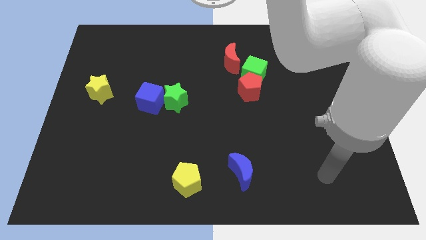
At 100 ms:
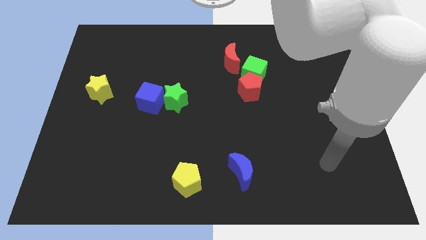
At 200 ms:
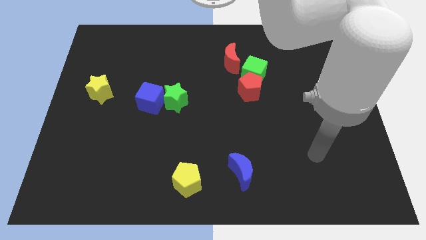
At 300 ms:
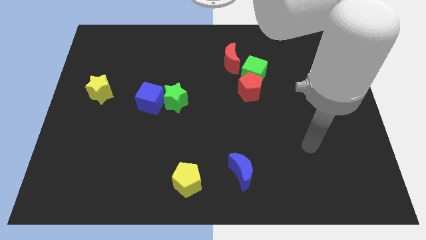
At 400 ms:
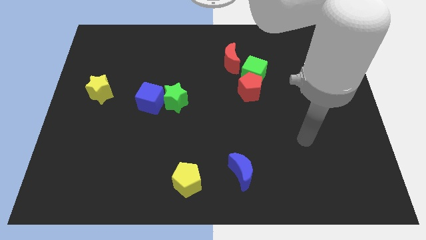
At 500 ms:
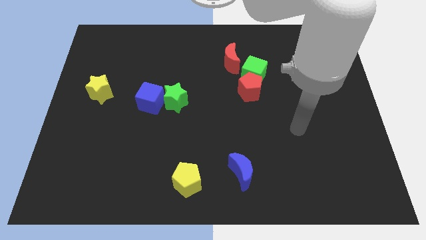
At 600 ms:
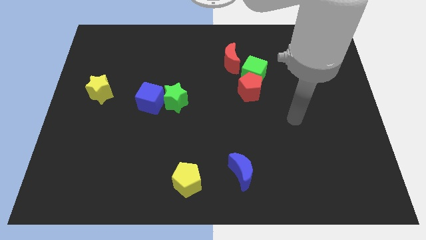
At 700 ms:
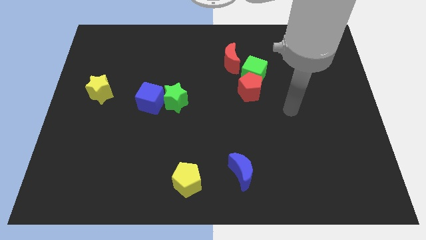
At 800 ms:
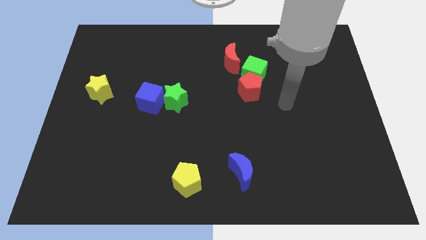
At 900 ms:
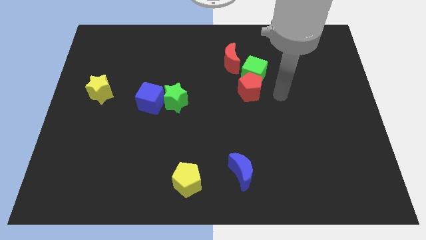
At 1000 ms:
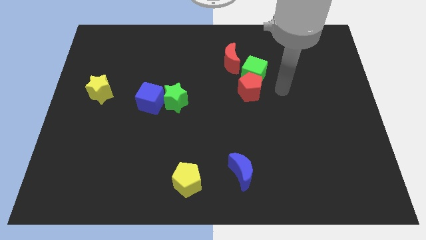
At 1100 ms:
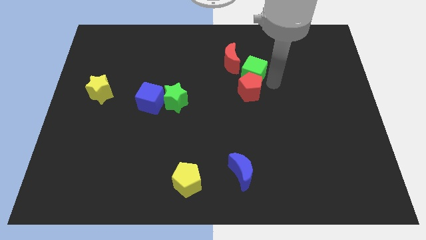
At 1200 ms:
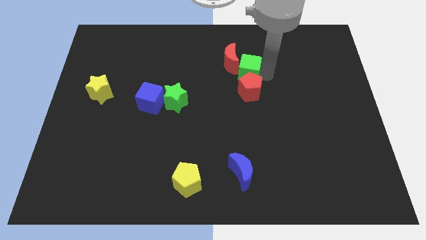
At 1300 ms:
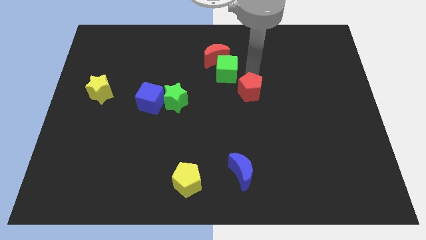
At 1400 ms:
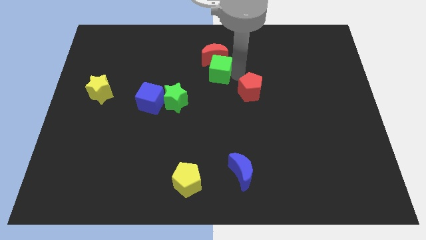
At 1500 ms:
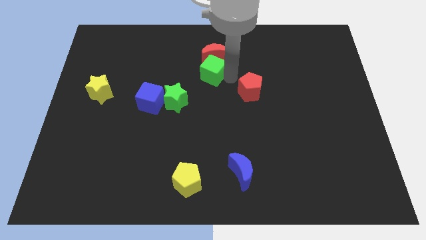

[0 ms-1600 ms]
move the red pentagon away from the green cube

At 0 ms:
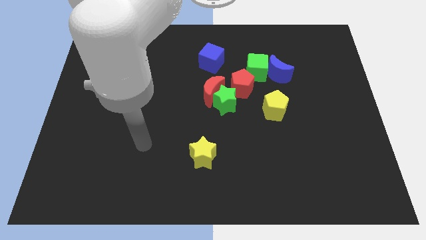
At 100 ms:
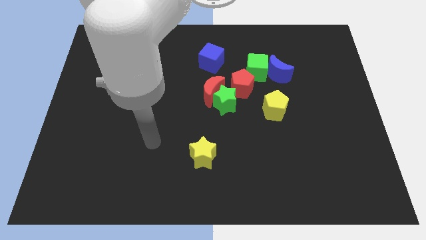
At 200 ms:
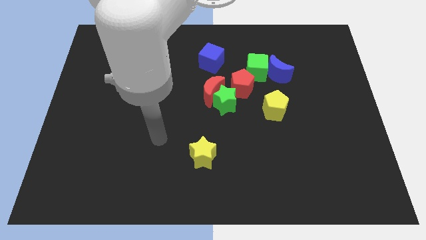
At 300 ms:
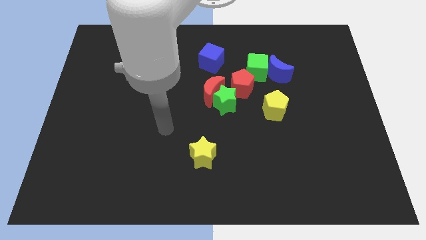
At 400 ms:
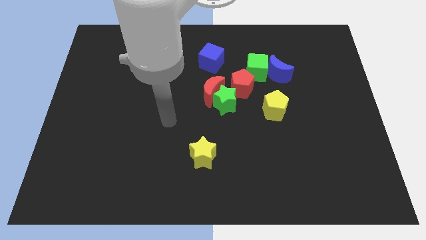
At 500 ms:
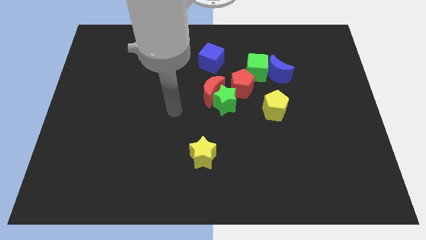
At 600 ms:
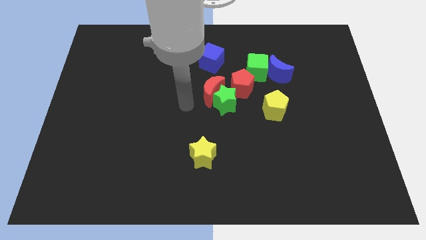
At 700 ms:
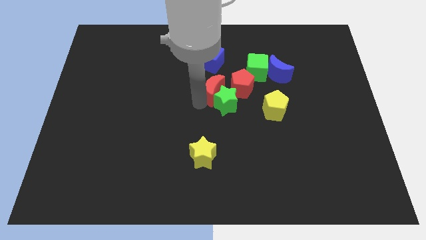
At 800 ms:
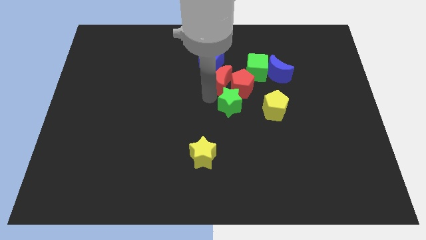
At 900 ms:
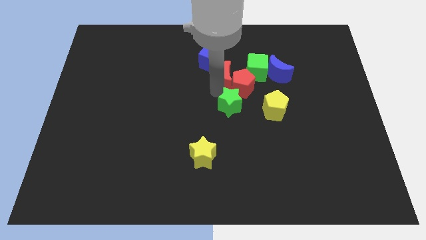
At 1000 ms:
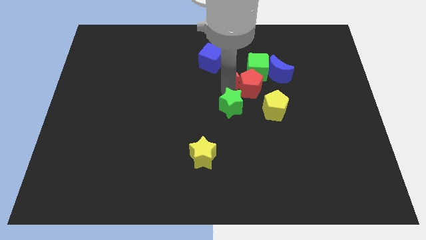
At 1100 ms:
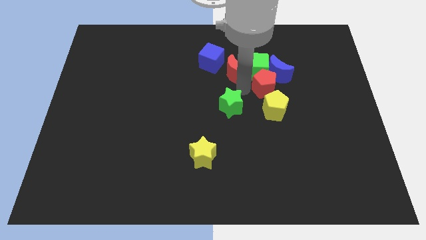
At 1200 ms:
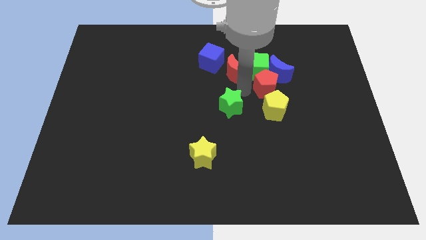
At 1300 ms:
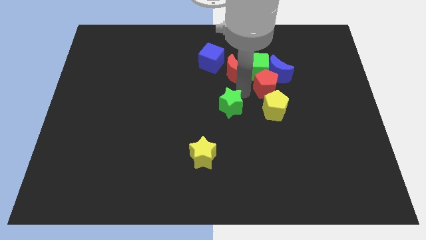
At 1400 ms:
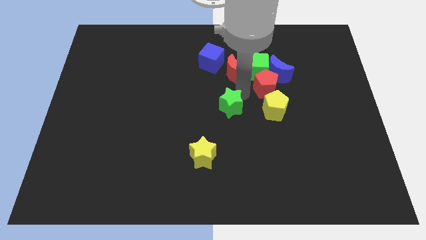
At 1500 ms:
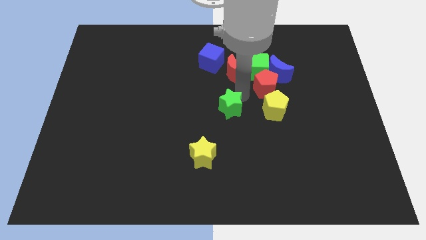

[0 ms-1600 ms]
pull the green star apart from the red moon and red pentagon

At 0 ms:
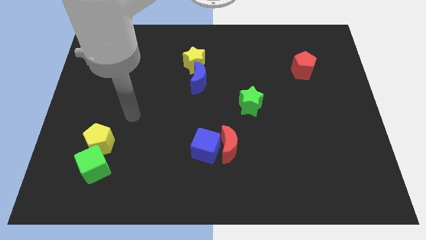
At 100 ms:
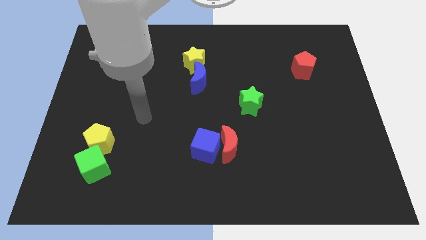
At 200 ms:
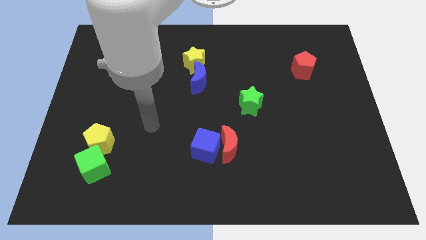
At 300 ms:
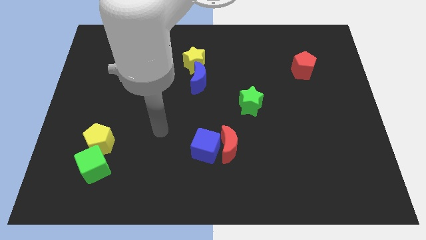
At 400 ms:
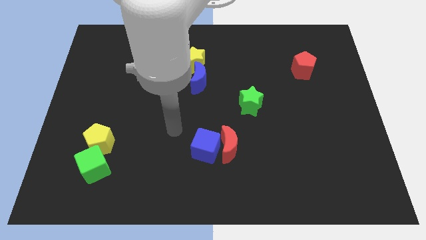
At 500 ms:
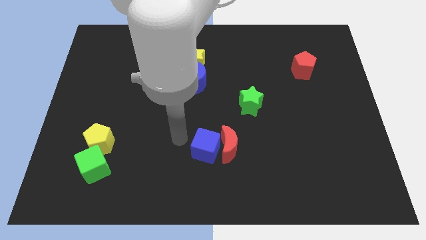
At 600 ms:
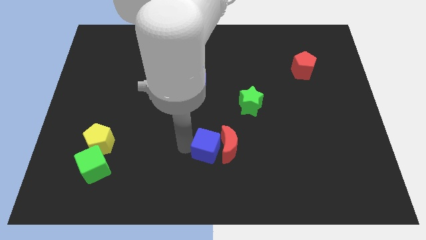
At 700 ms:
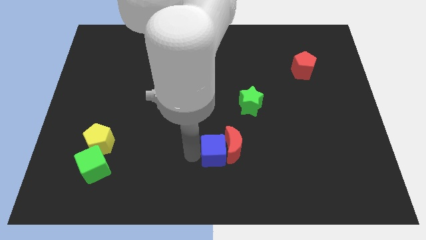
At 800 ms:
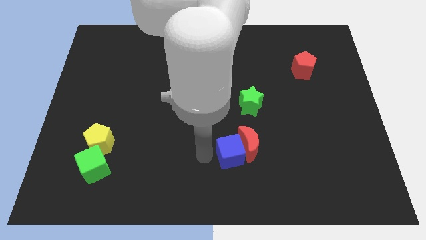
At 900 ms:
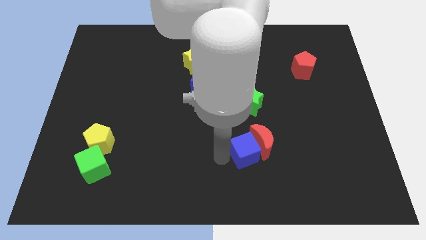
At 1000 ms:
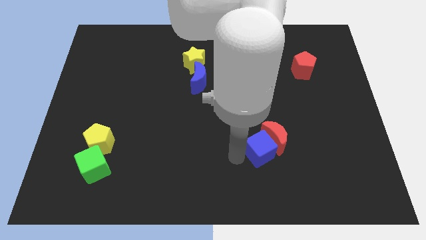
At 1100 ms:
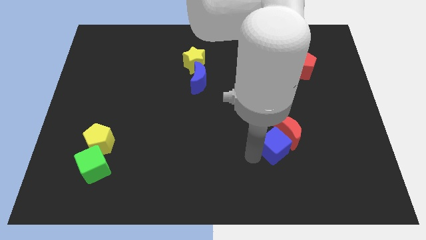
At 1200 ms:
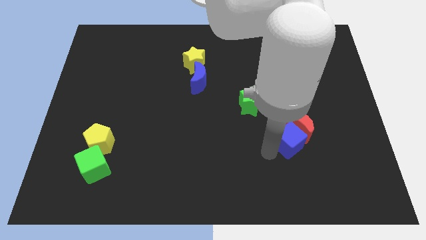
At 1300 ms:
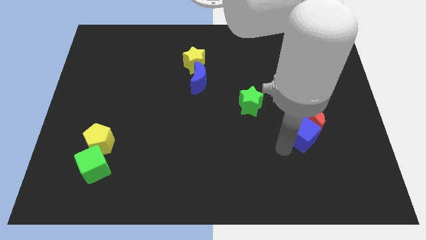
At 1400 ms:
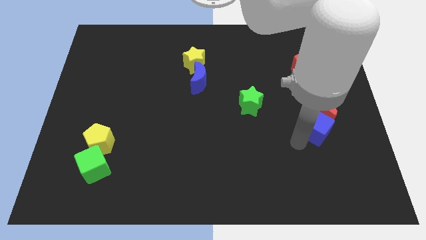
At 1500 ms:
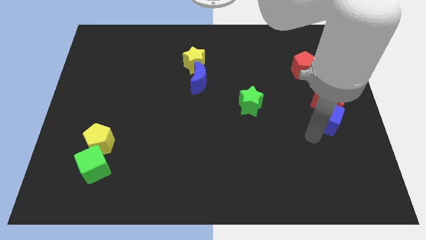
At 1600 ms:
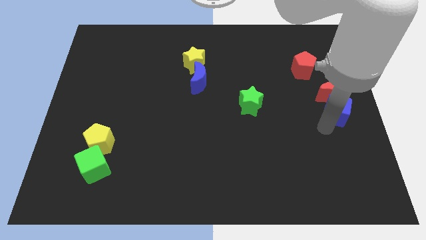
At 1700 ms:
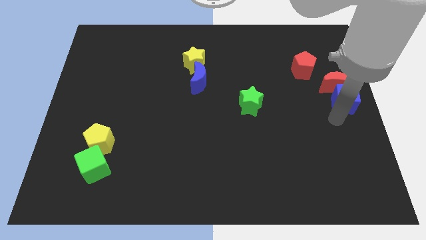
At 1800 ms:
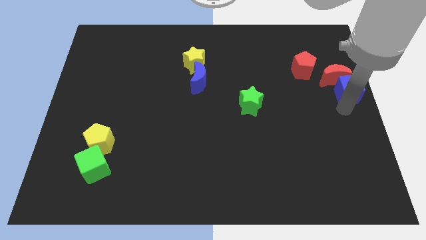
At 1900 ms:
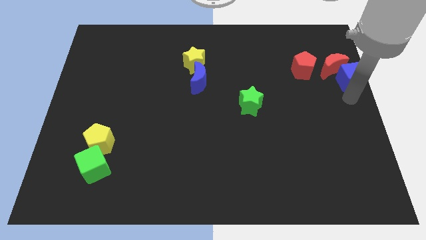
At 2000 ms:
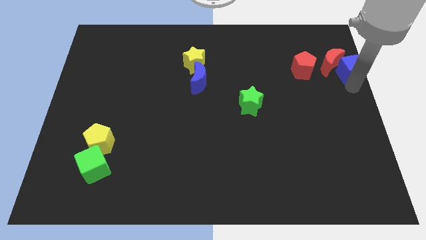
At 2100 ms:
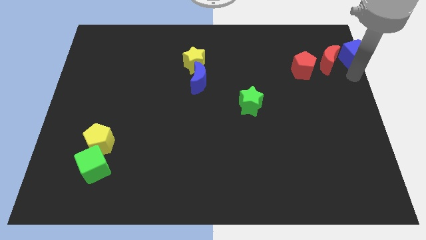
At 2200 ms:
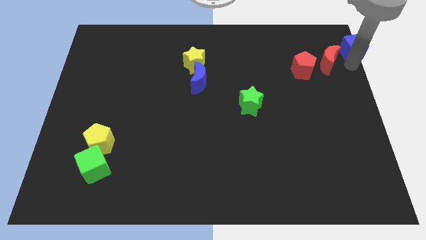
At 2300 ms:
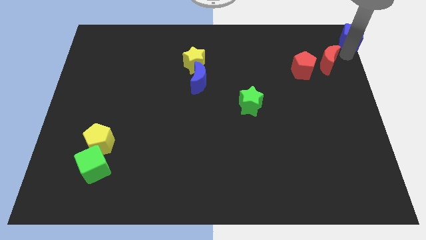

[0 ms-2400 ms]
separate the red moon from the blue cube

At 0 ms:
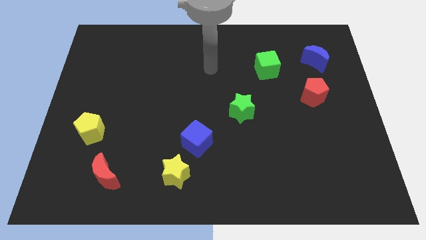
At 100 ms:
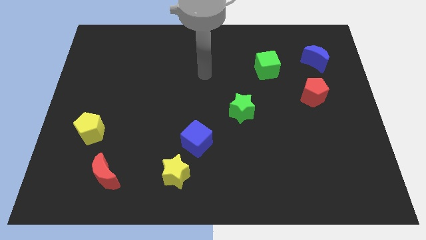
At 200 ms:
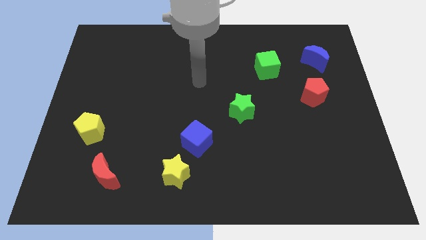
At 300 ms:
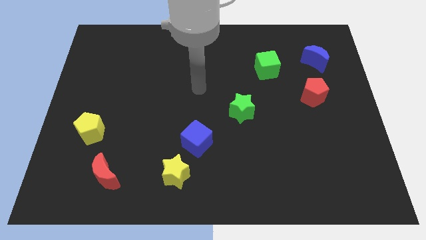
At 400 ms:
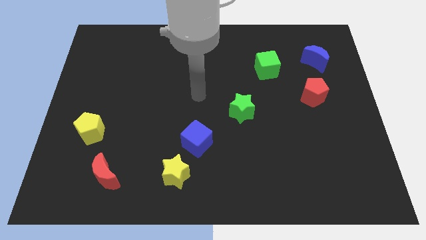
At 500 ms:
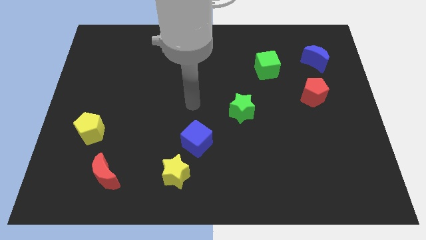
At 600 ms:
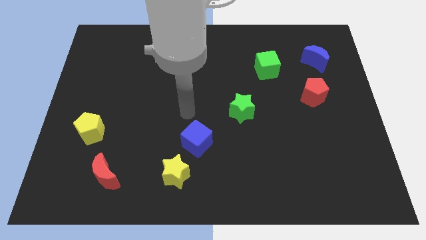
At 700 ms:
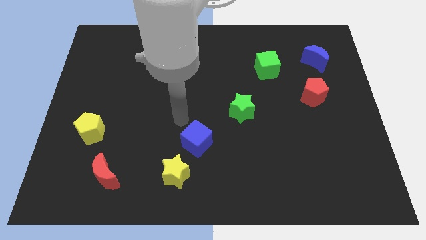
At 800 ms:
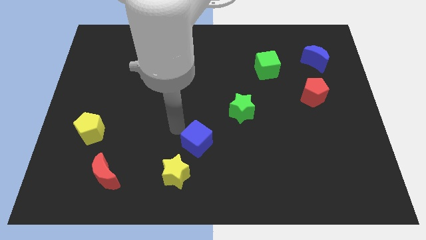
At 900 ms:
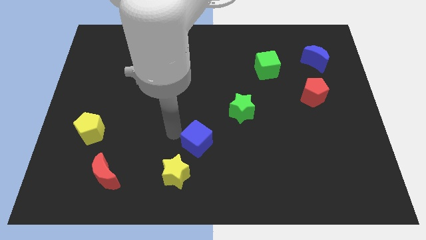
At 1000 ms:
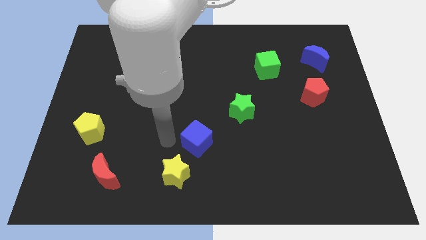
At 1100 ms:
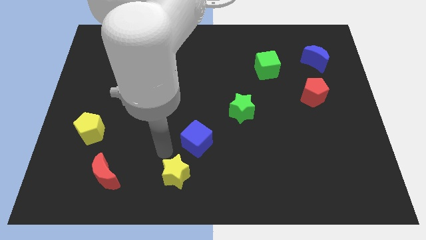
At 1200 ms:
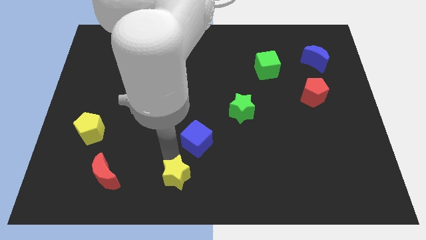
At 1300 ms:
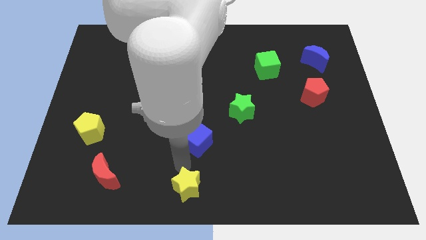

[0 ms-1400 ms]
separate the blue cube from the yellow star

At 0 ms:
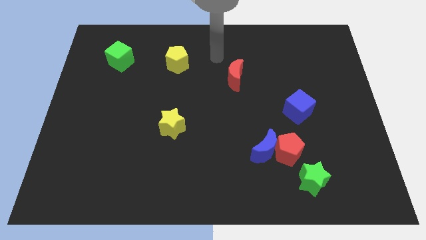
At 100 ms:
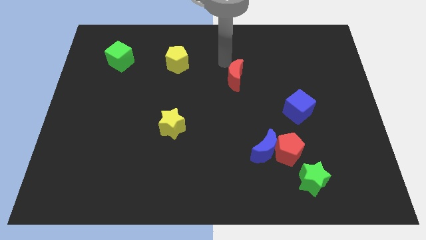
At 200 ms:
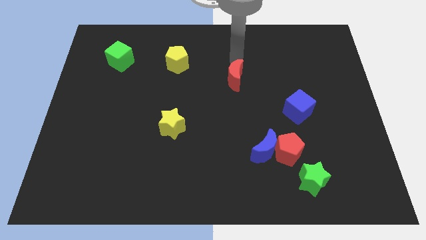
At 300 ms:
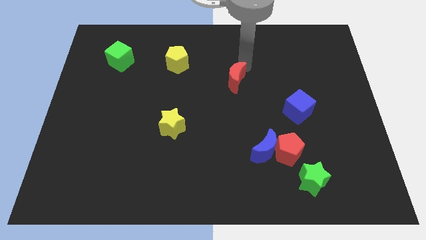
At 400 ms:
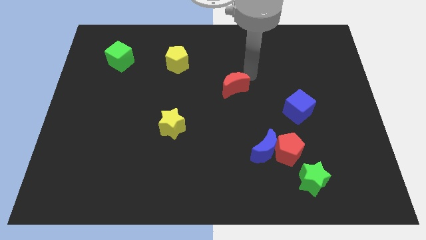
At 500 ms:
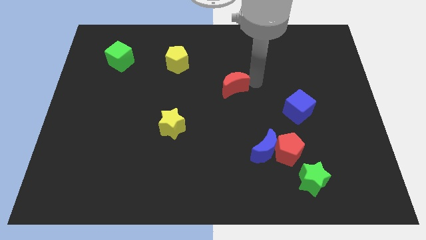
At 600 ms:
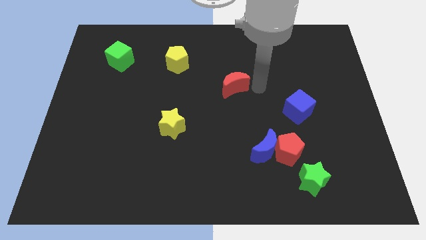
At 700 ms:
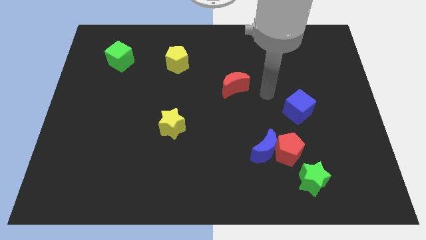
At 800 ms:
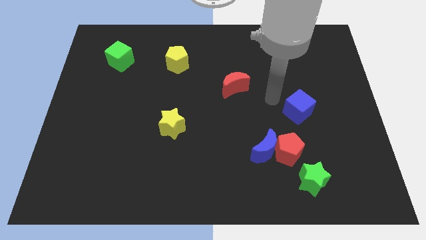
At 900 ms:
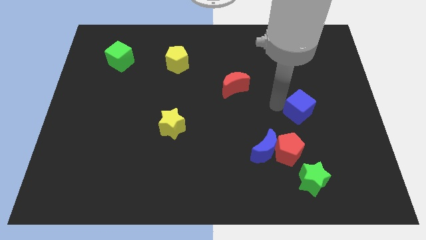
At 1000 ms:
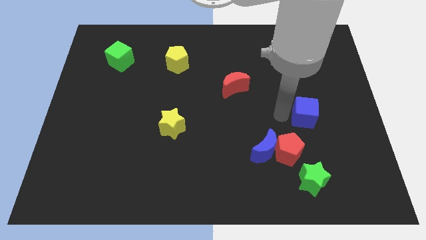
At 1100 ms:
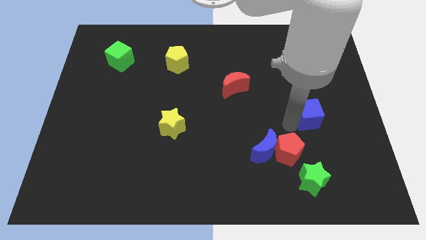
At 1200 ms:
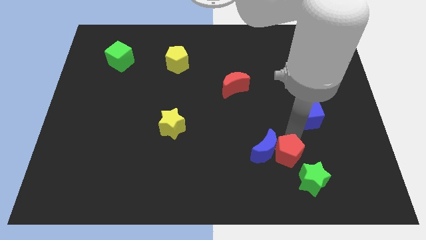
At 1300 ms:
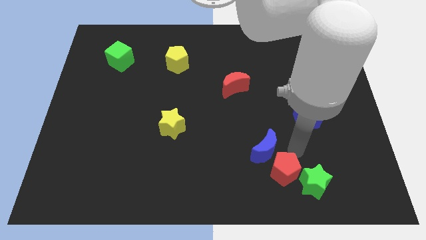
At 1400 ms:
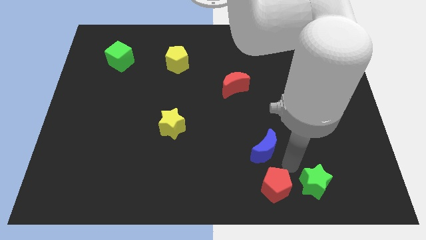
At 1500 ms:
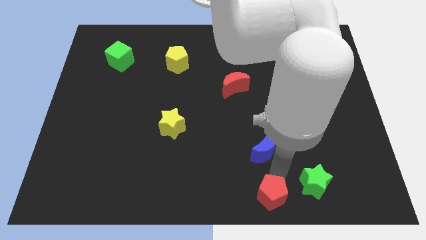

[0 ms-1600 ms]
move the blue moon away from the red pentagon

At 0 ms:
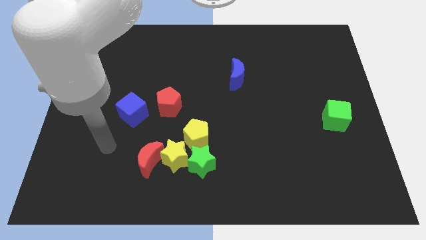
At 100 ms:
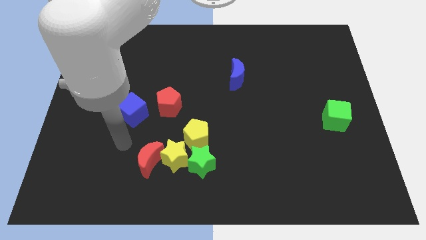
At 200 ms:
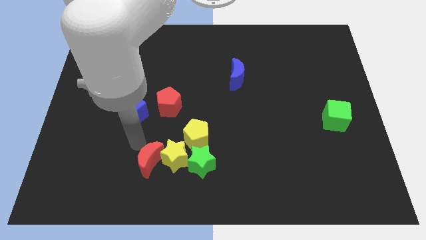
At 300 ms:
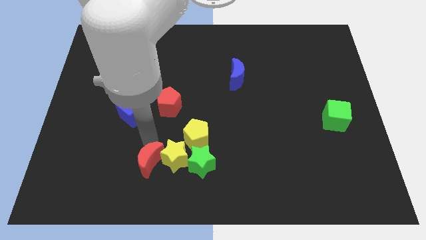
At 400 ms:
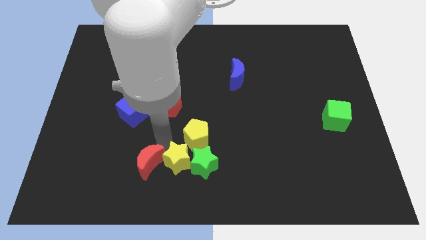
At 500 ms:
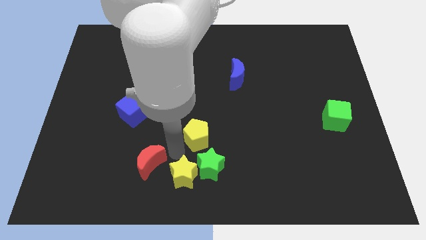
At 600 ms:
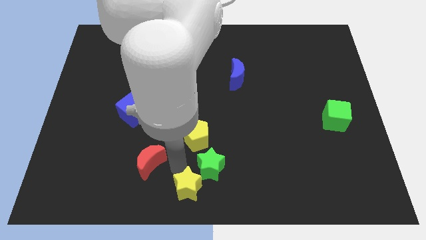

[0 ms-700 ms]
pull the red moon apart from the yellow star
